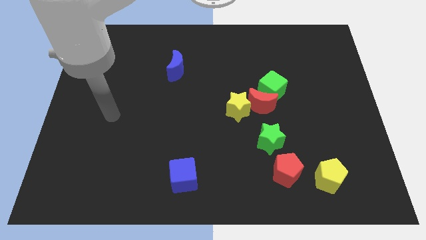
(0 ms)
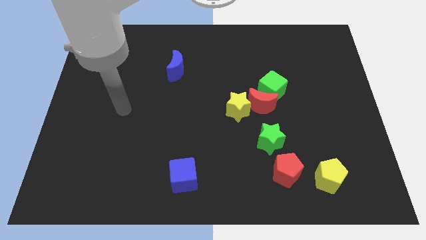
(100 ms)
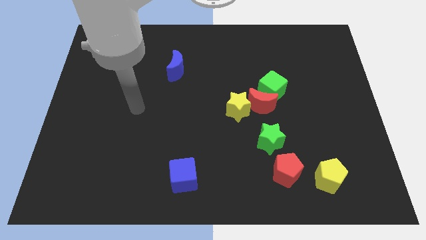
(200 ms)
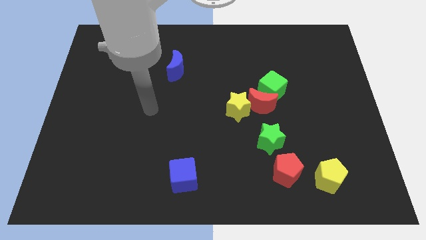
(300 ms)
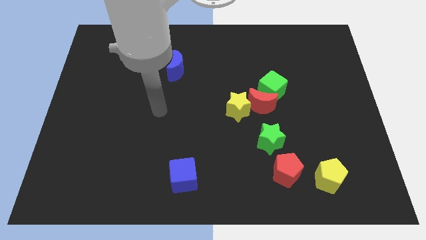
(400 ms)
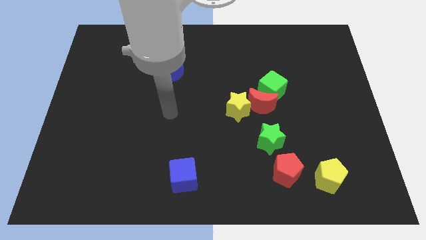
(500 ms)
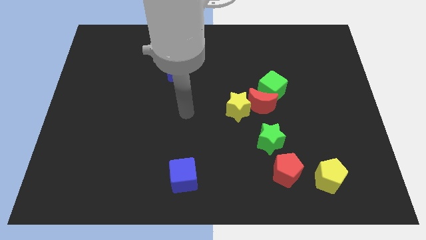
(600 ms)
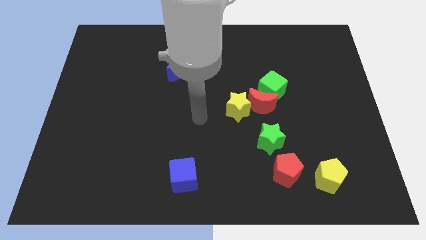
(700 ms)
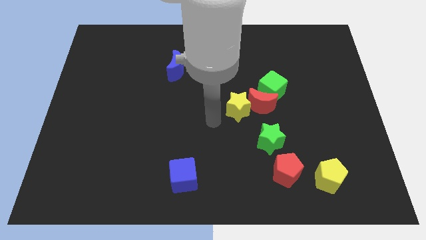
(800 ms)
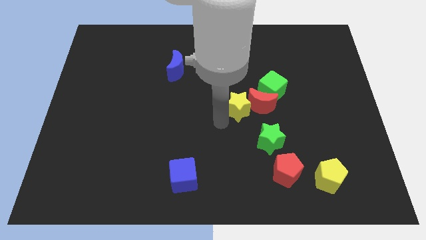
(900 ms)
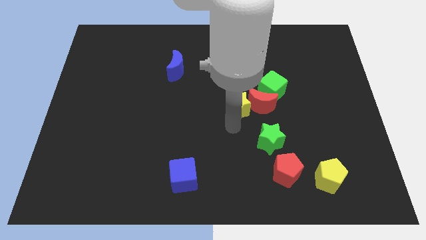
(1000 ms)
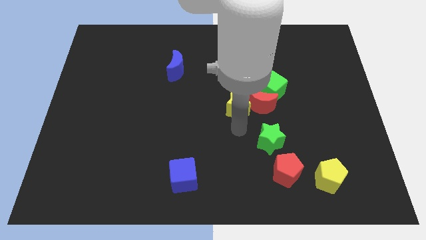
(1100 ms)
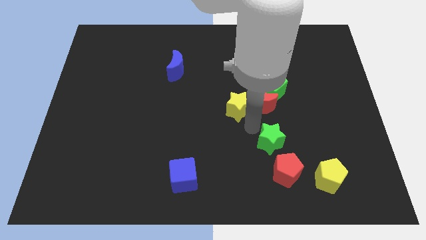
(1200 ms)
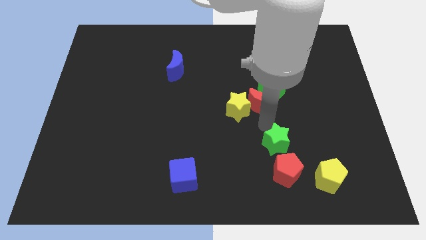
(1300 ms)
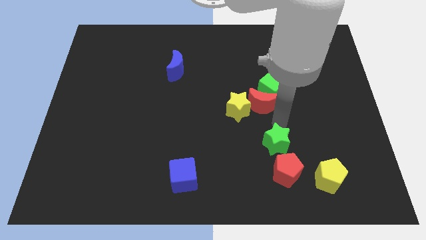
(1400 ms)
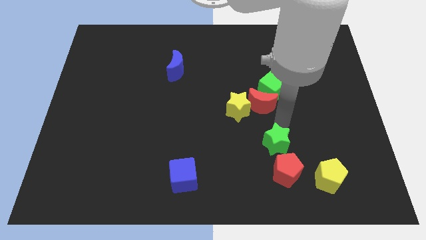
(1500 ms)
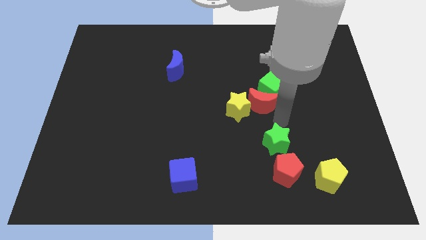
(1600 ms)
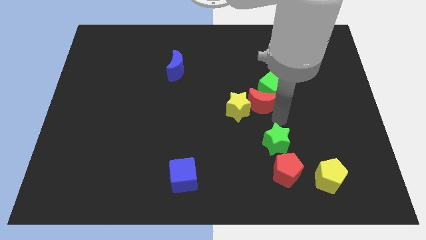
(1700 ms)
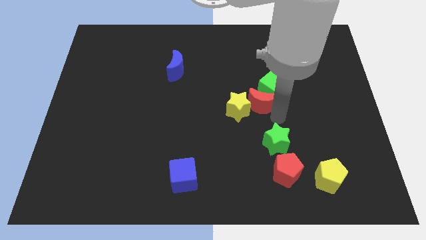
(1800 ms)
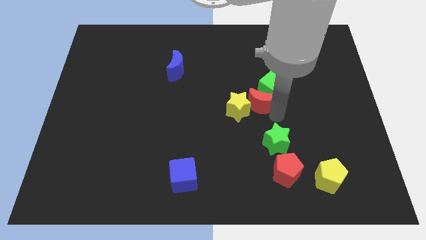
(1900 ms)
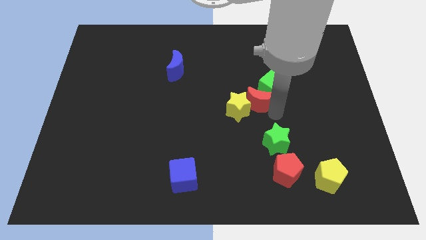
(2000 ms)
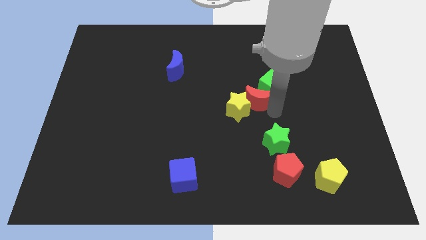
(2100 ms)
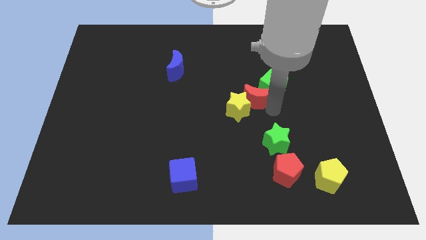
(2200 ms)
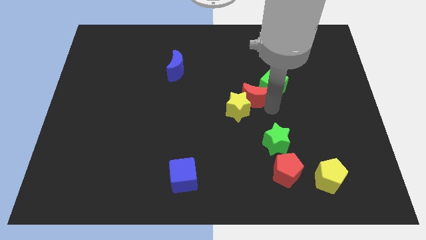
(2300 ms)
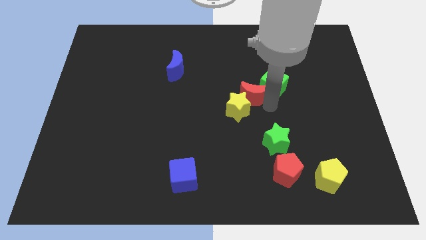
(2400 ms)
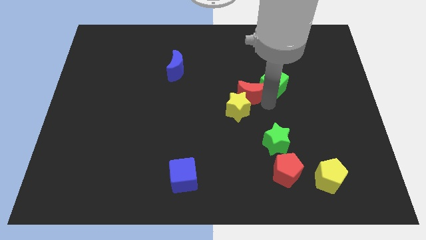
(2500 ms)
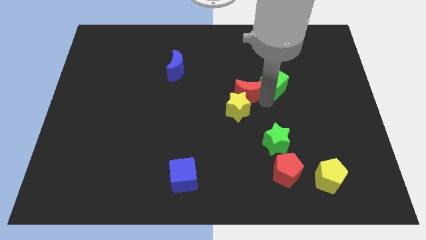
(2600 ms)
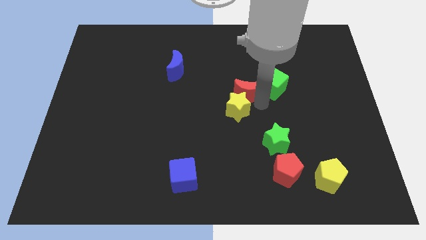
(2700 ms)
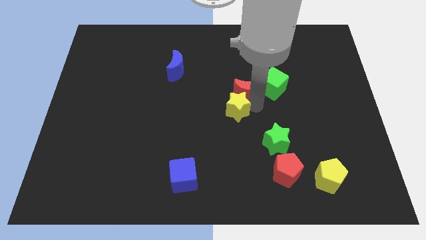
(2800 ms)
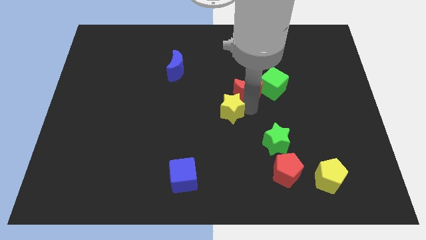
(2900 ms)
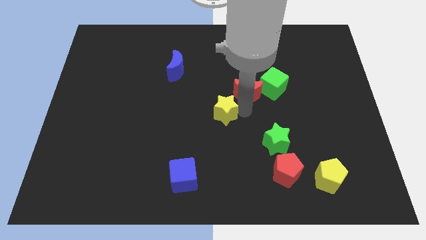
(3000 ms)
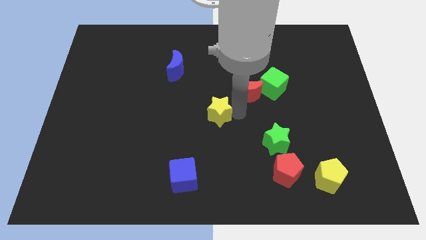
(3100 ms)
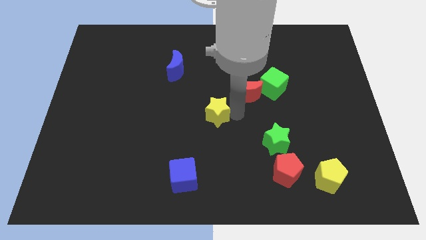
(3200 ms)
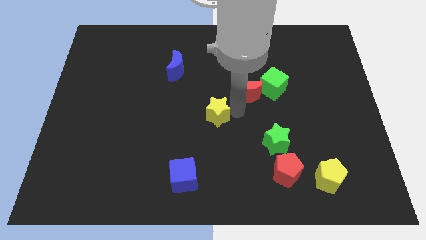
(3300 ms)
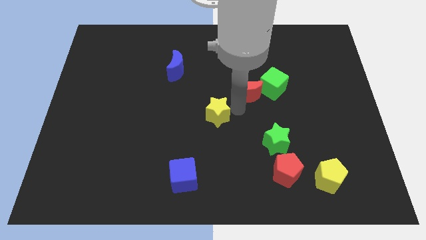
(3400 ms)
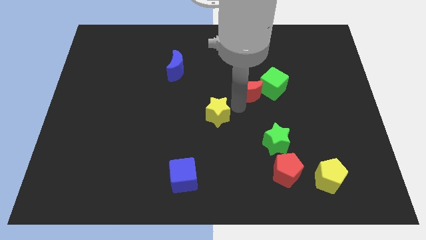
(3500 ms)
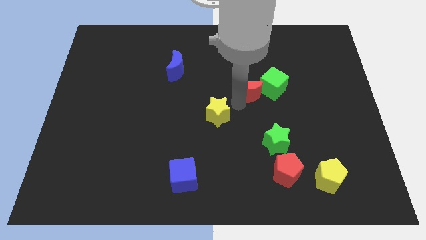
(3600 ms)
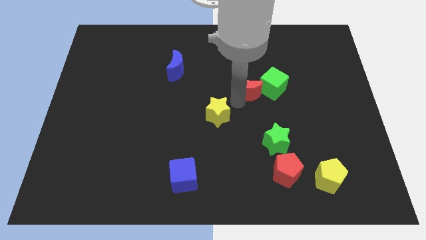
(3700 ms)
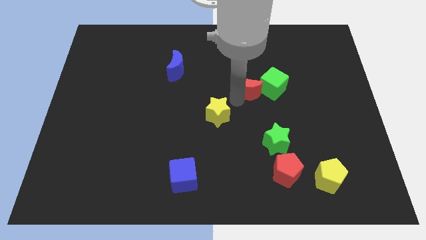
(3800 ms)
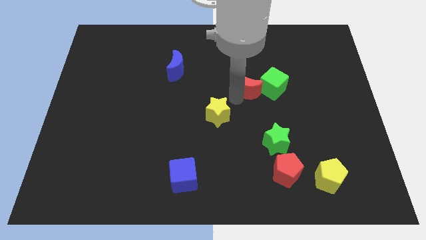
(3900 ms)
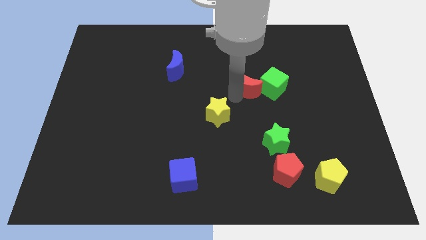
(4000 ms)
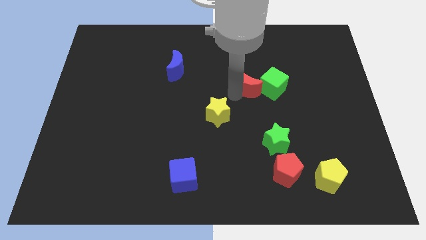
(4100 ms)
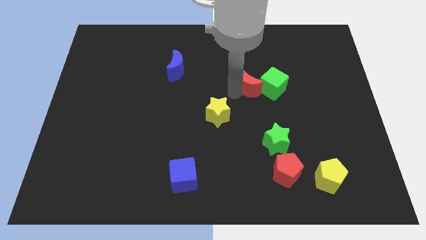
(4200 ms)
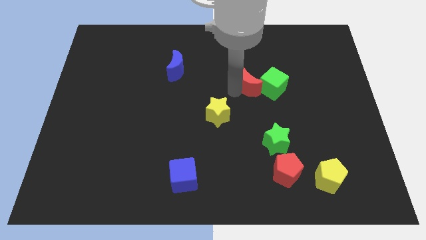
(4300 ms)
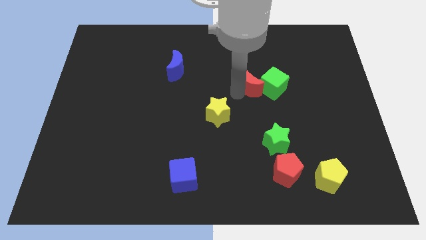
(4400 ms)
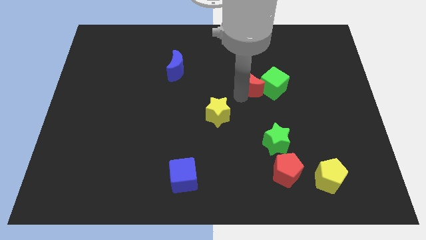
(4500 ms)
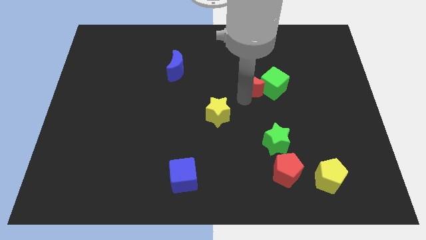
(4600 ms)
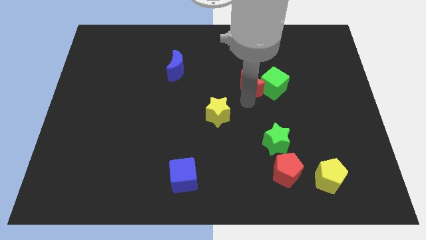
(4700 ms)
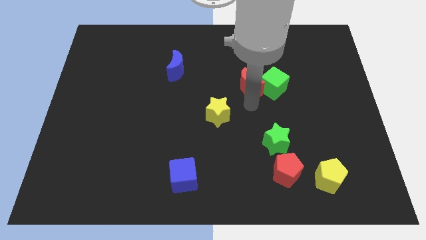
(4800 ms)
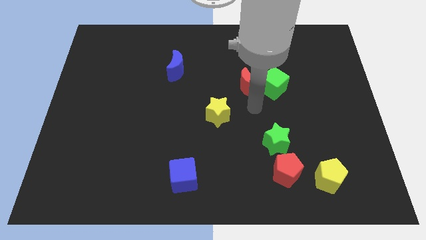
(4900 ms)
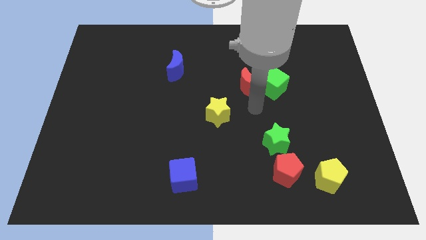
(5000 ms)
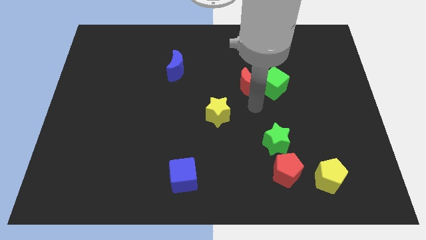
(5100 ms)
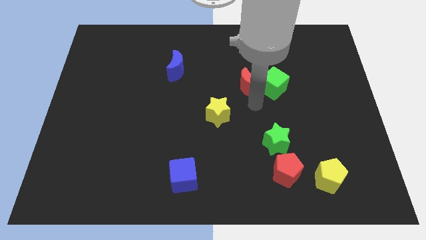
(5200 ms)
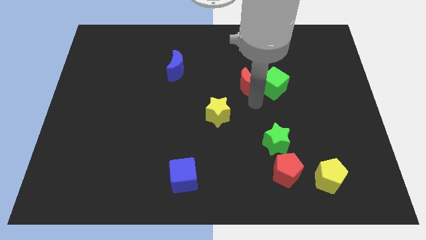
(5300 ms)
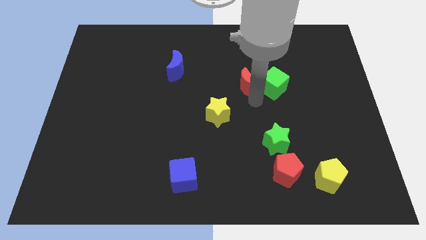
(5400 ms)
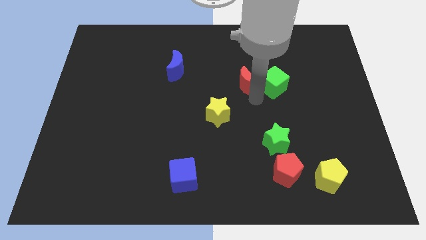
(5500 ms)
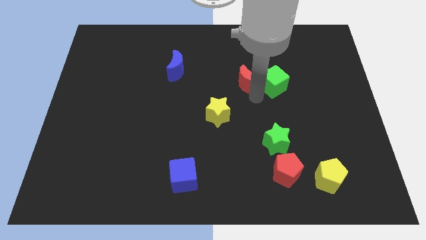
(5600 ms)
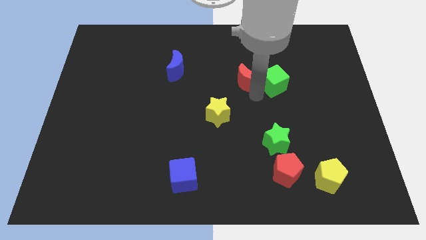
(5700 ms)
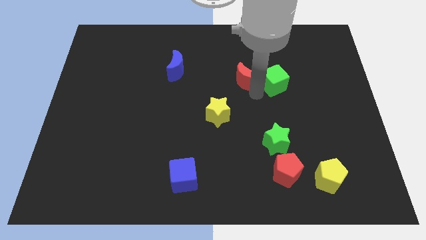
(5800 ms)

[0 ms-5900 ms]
pull the red moon apart from the green cube, yellow star, and green star

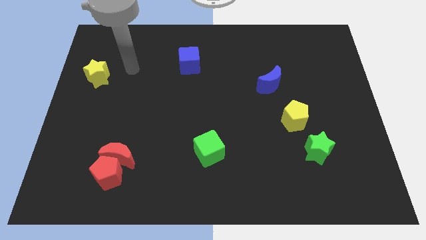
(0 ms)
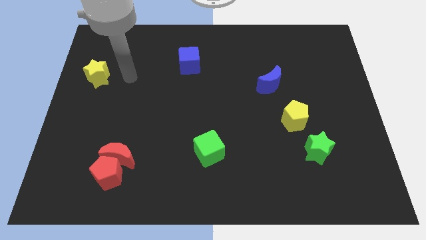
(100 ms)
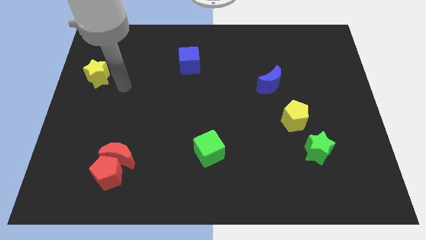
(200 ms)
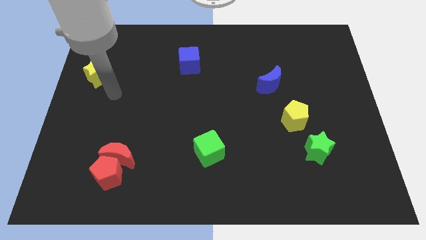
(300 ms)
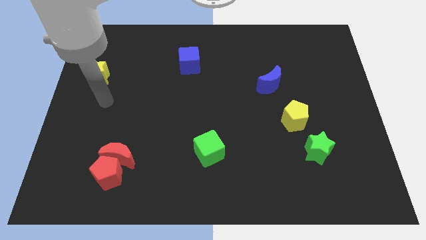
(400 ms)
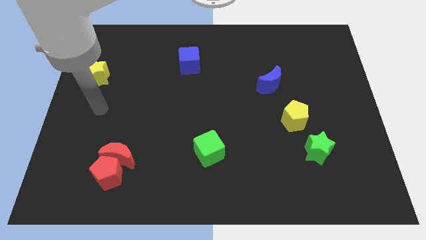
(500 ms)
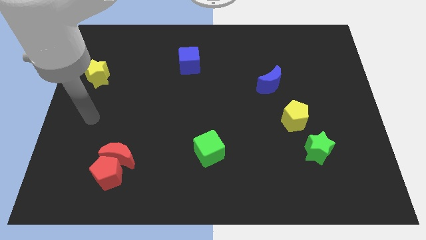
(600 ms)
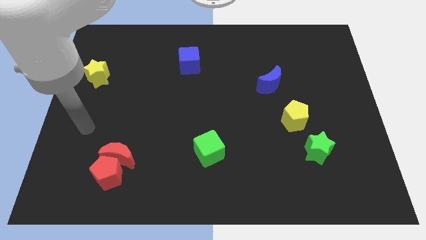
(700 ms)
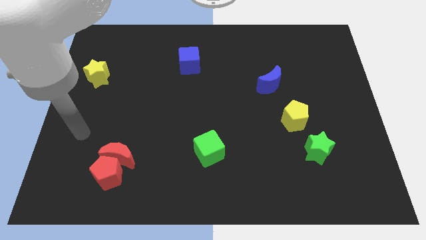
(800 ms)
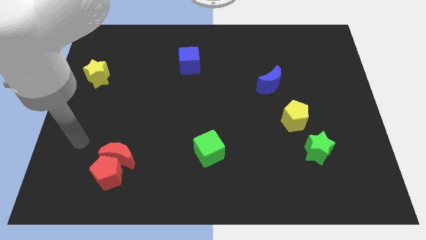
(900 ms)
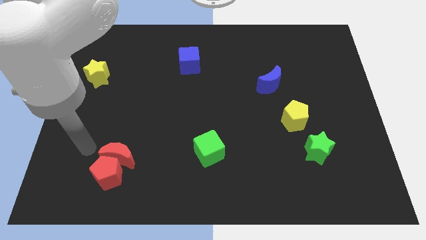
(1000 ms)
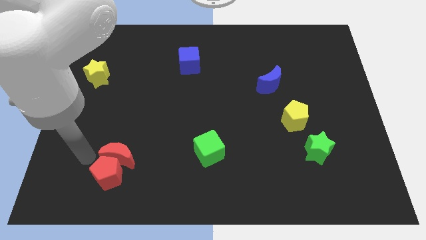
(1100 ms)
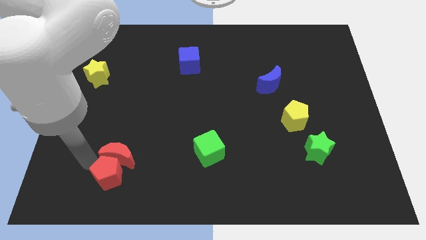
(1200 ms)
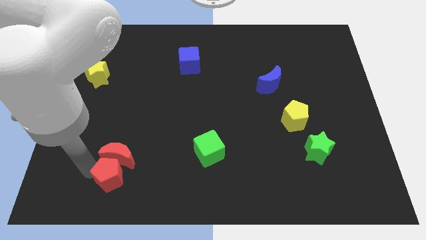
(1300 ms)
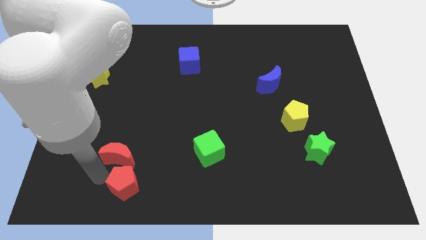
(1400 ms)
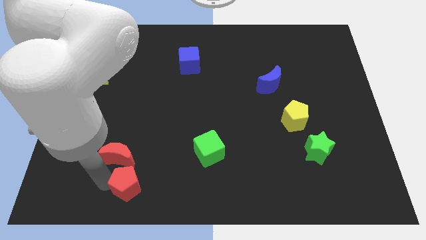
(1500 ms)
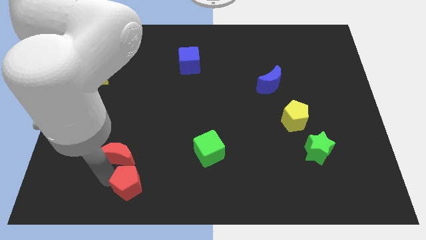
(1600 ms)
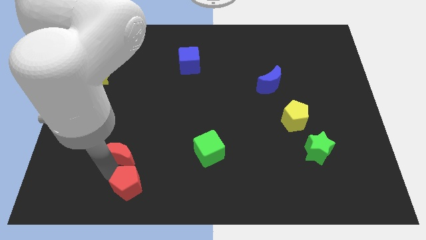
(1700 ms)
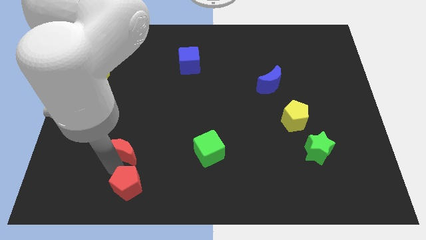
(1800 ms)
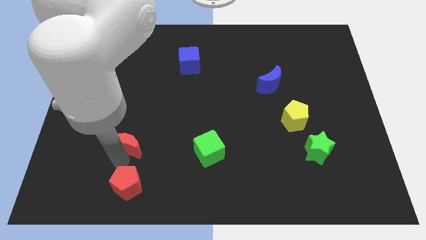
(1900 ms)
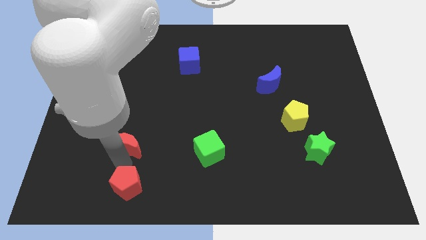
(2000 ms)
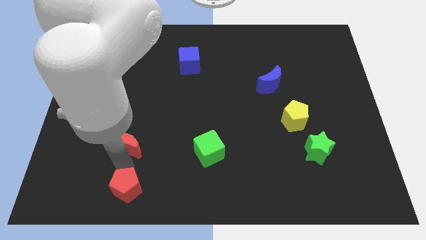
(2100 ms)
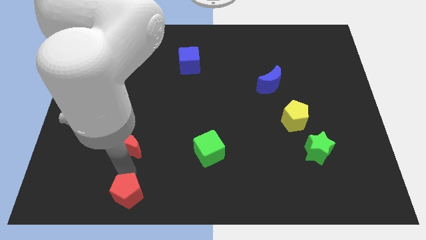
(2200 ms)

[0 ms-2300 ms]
separate the red moon from the red pentagon

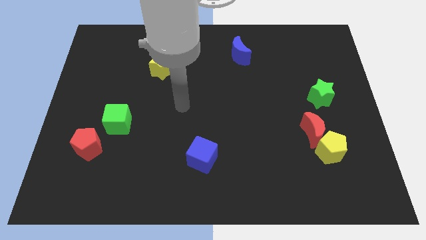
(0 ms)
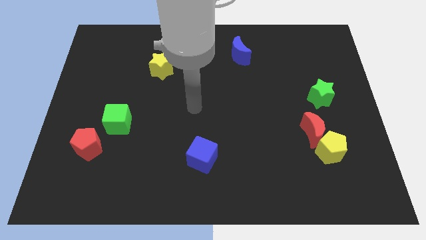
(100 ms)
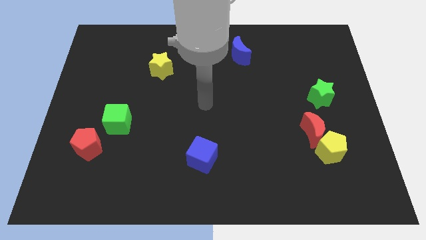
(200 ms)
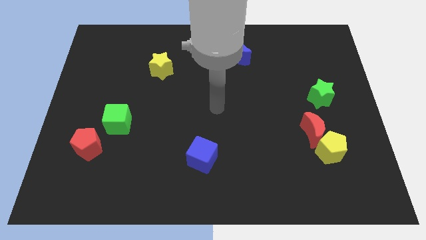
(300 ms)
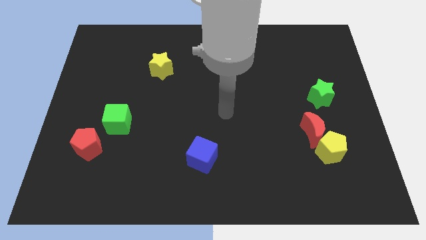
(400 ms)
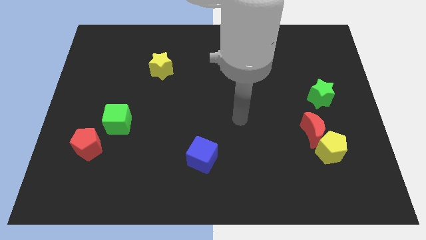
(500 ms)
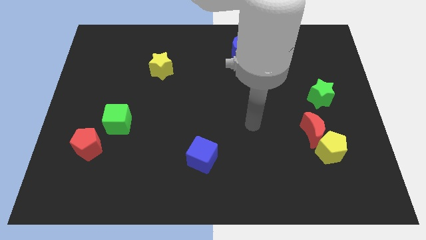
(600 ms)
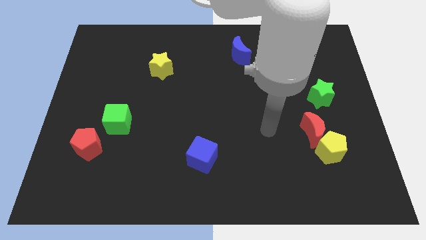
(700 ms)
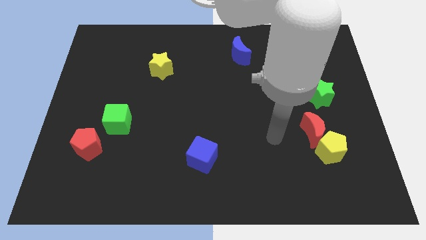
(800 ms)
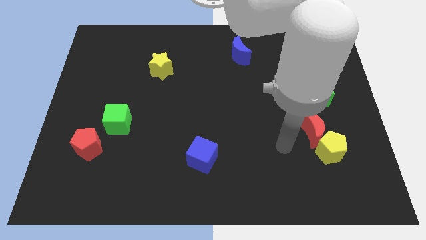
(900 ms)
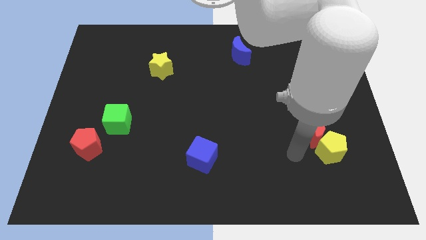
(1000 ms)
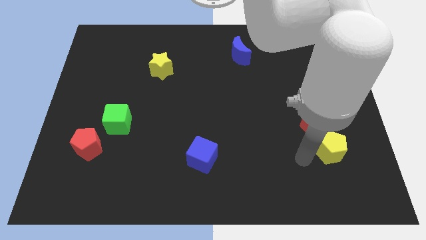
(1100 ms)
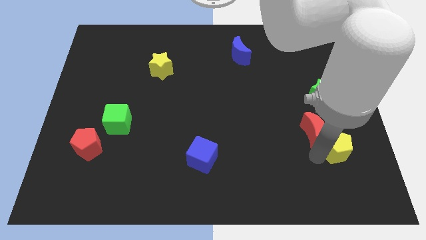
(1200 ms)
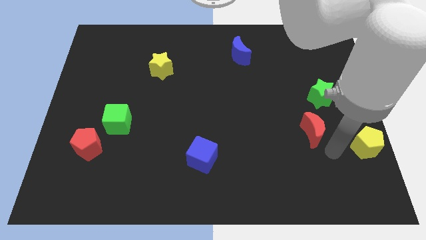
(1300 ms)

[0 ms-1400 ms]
pull the red moon apart from the yellow pentagon
